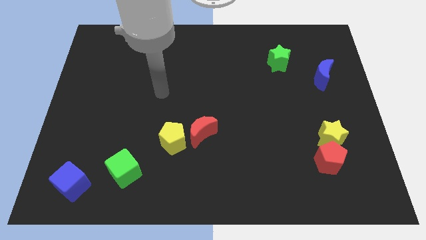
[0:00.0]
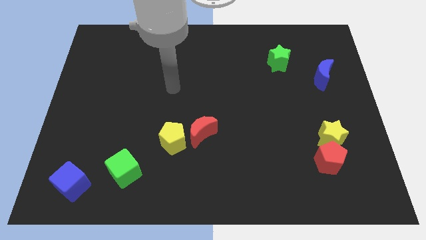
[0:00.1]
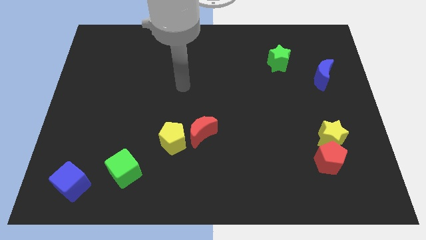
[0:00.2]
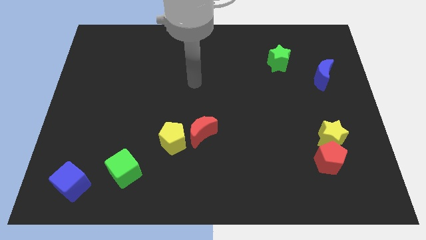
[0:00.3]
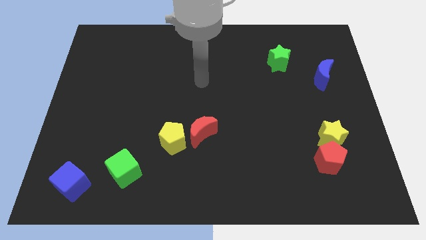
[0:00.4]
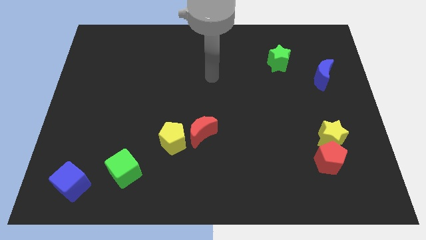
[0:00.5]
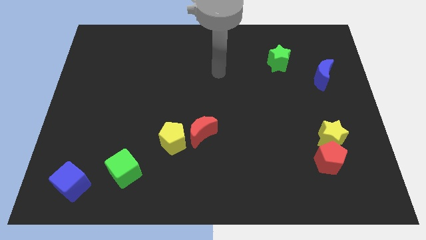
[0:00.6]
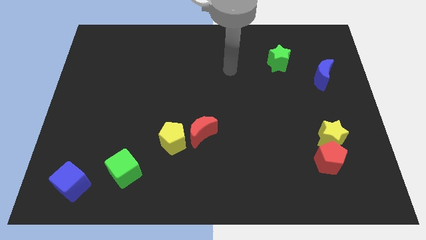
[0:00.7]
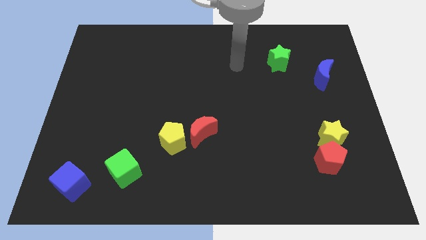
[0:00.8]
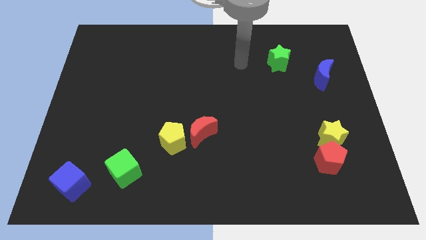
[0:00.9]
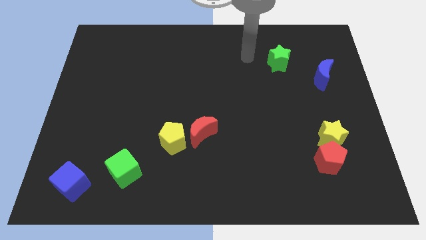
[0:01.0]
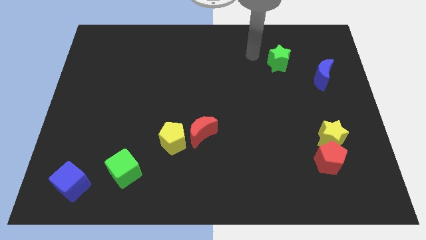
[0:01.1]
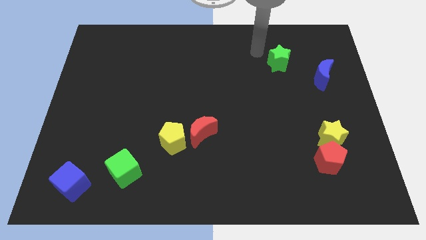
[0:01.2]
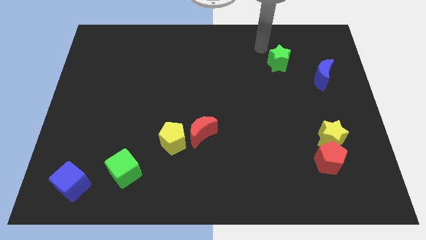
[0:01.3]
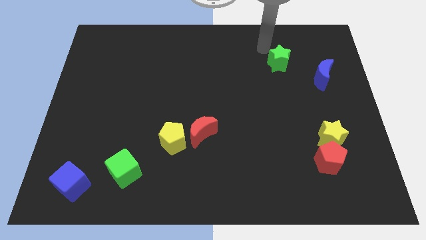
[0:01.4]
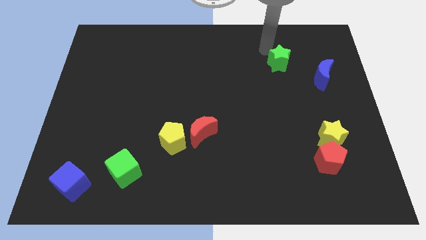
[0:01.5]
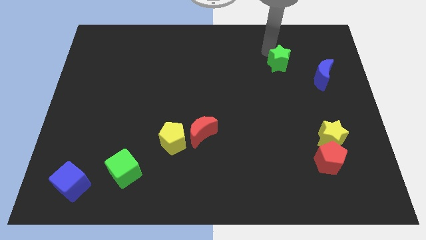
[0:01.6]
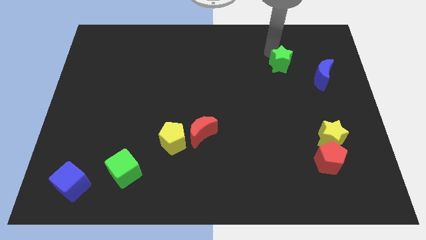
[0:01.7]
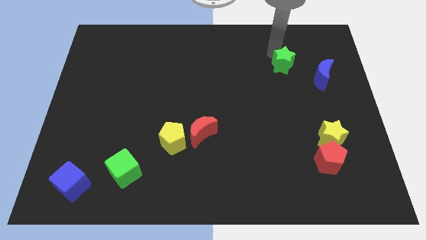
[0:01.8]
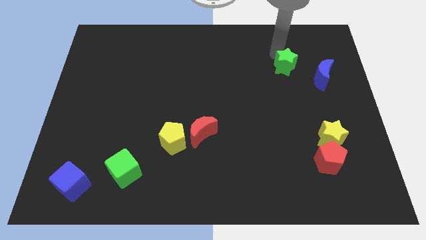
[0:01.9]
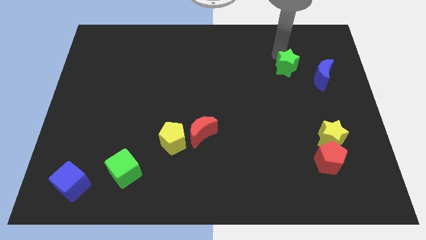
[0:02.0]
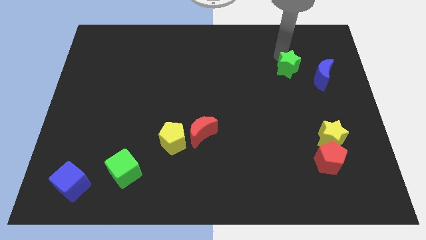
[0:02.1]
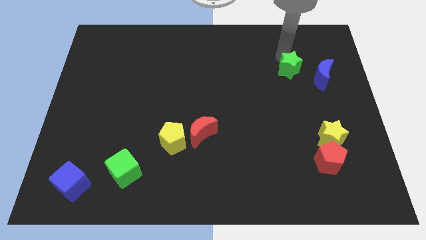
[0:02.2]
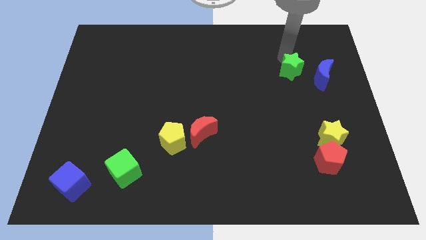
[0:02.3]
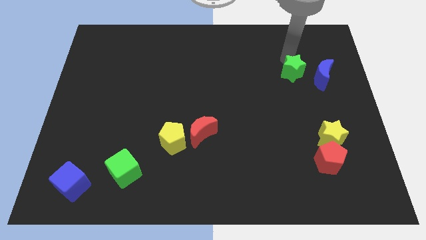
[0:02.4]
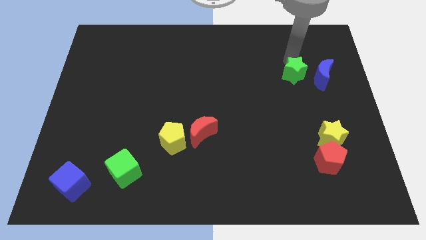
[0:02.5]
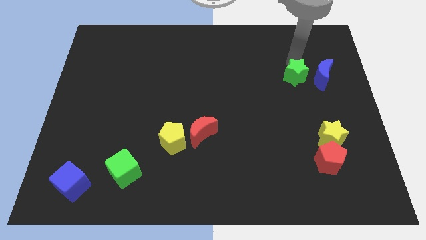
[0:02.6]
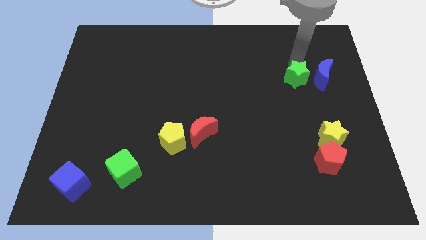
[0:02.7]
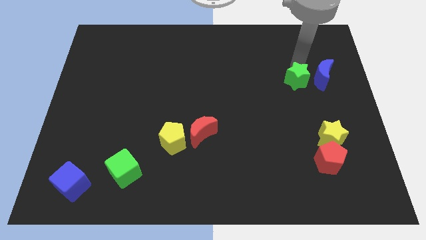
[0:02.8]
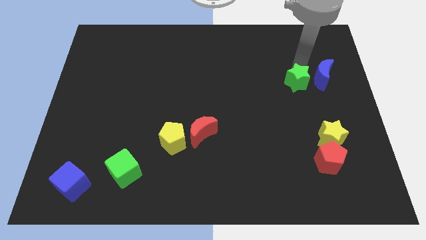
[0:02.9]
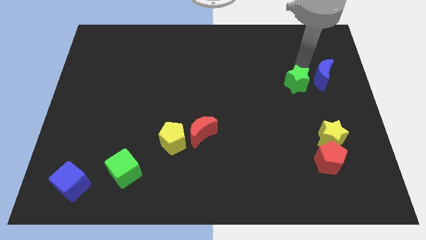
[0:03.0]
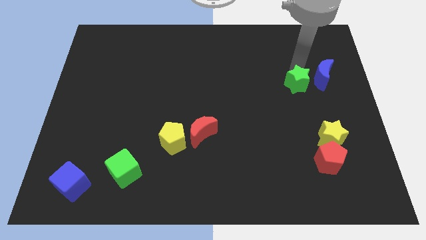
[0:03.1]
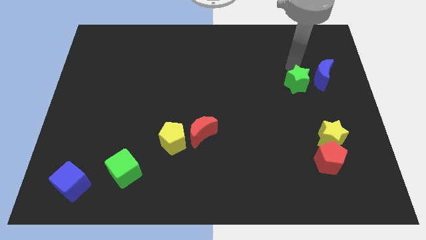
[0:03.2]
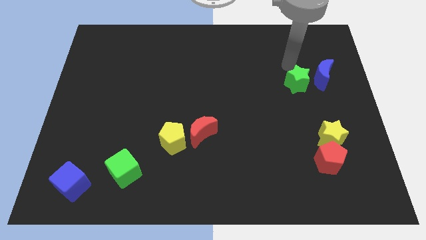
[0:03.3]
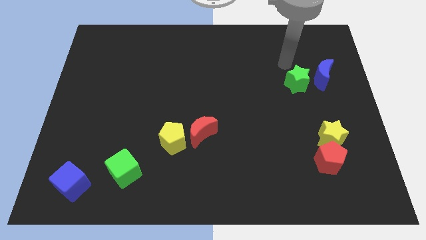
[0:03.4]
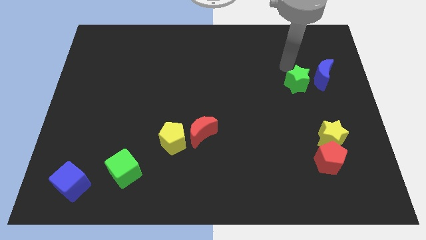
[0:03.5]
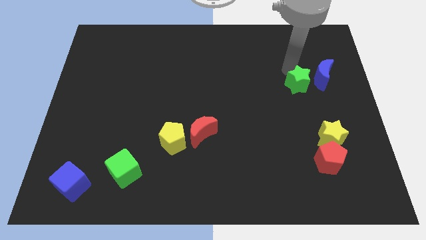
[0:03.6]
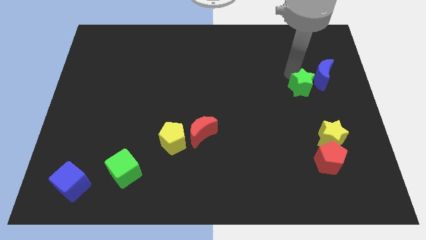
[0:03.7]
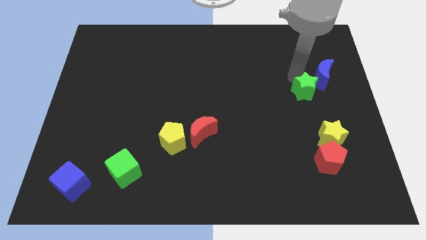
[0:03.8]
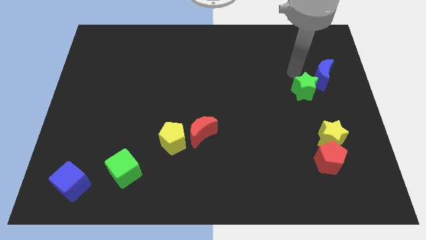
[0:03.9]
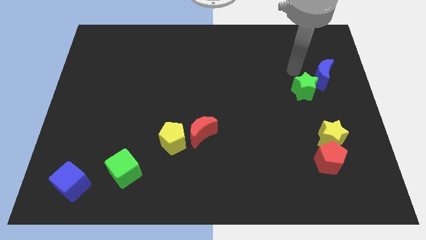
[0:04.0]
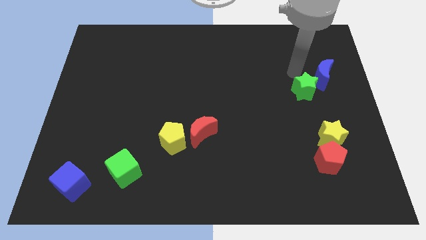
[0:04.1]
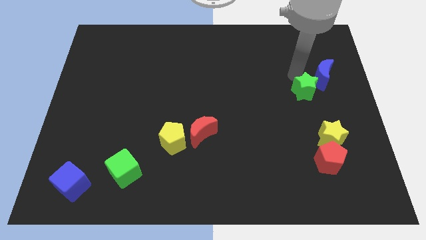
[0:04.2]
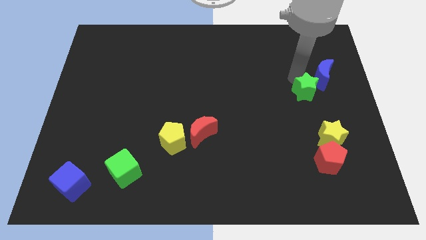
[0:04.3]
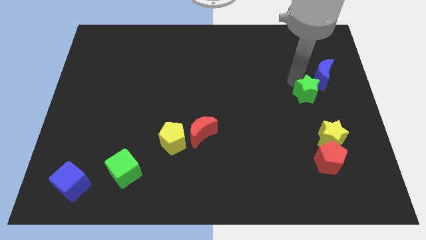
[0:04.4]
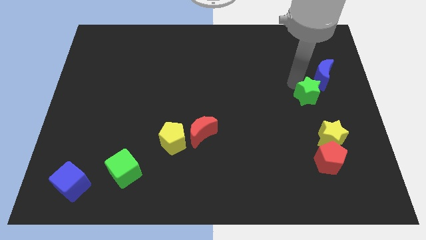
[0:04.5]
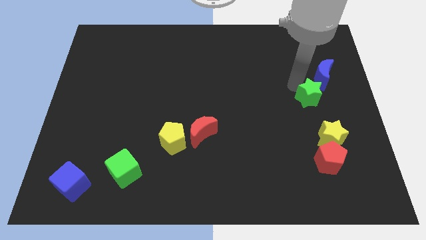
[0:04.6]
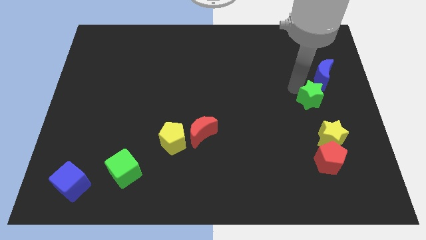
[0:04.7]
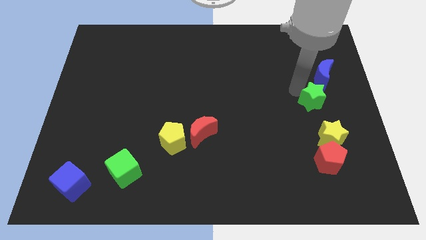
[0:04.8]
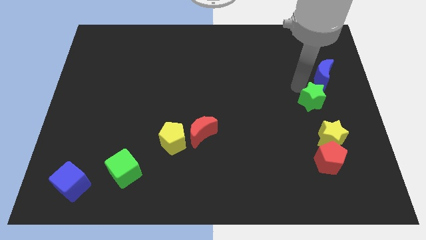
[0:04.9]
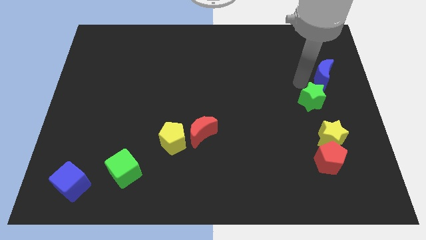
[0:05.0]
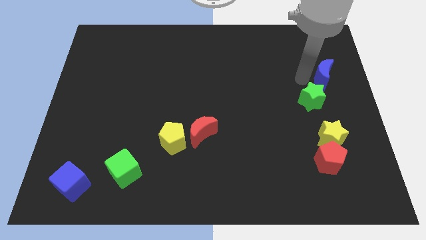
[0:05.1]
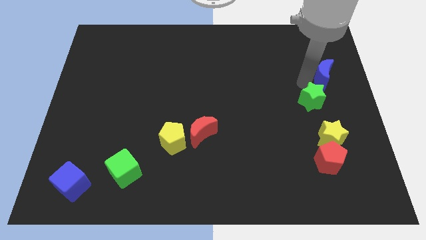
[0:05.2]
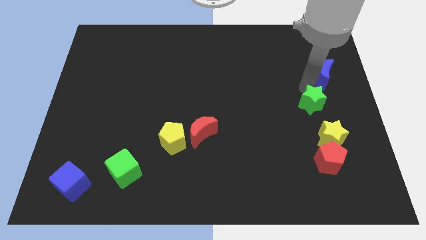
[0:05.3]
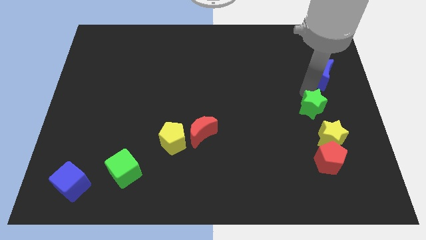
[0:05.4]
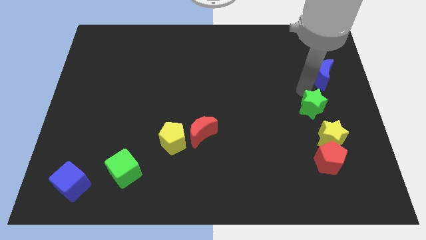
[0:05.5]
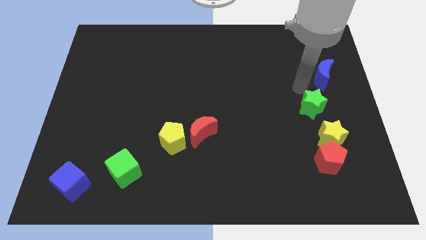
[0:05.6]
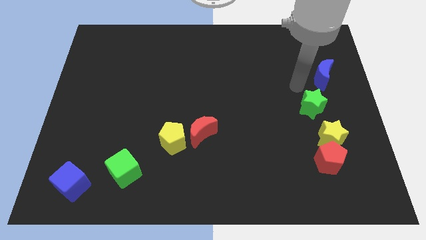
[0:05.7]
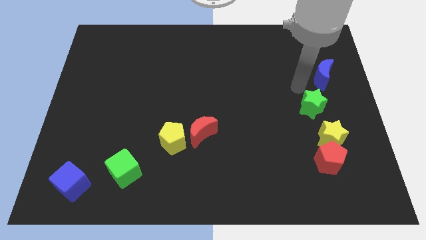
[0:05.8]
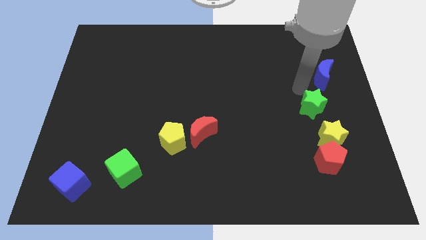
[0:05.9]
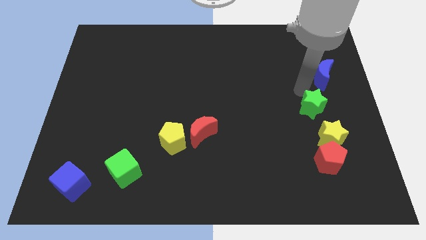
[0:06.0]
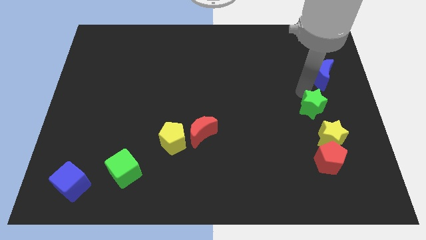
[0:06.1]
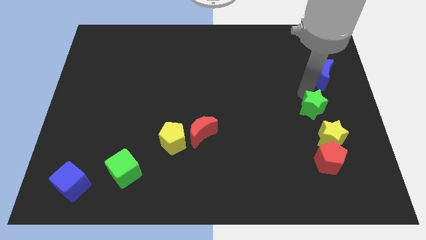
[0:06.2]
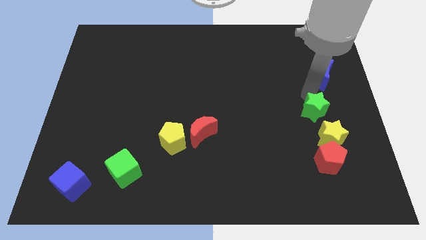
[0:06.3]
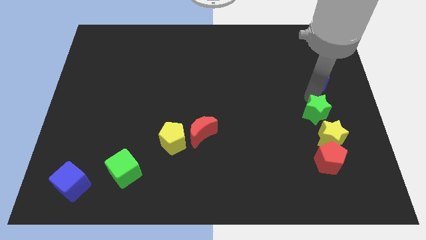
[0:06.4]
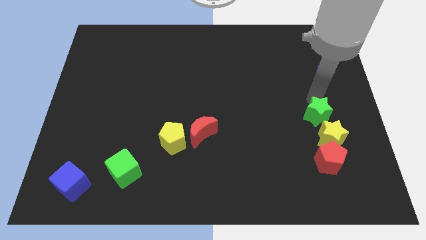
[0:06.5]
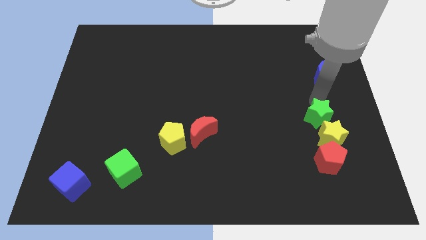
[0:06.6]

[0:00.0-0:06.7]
push the green star close to the yellow star
